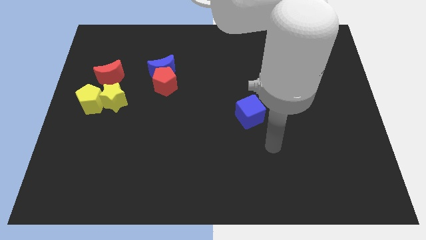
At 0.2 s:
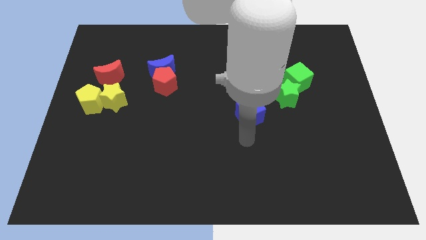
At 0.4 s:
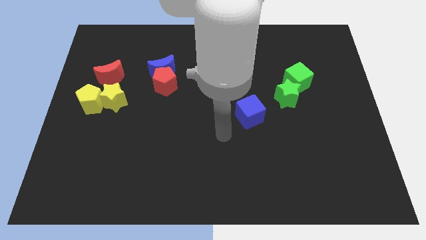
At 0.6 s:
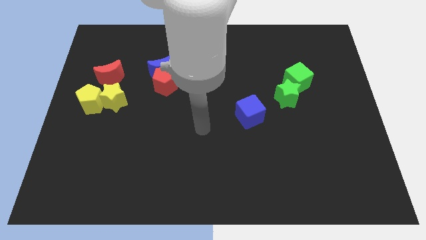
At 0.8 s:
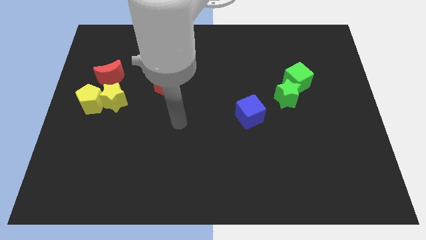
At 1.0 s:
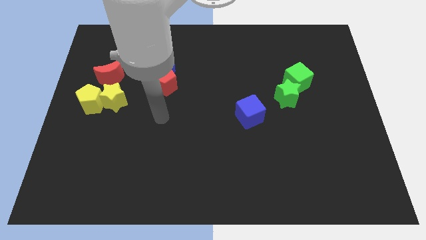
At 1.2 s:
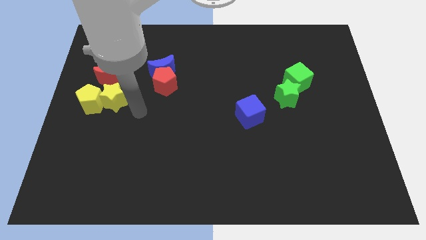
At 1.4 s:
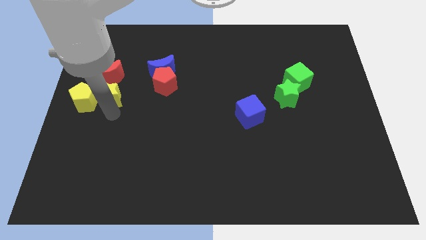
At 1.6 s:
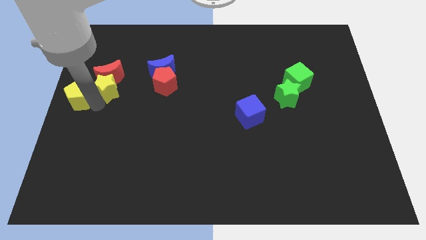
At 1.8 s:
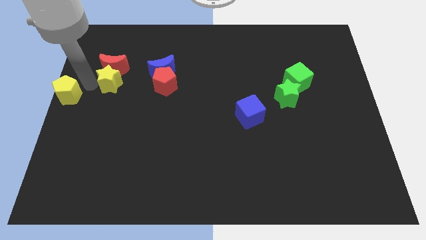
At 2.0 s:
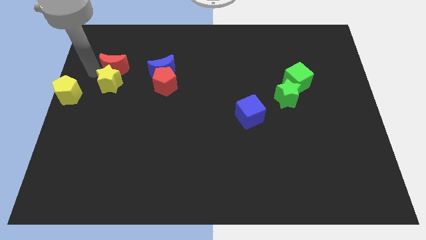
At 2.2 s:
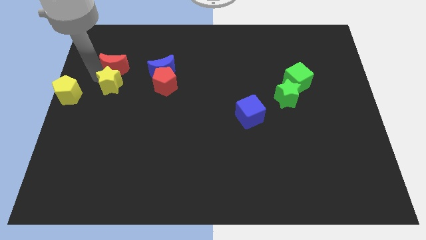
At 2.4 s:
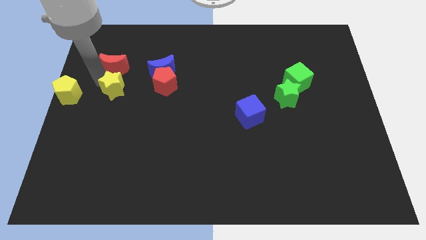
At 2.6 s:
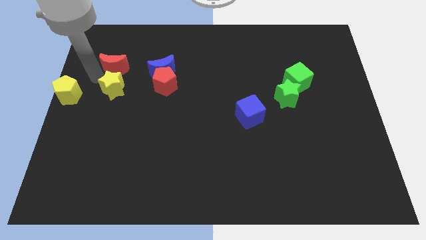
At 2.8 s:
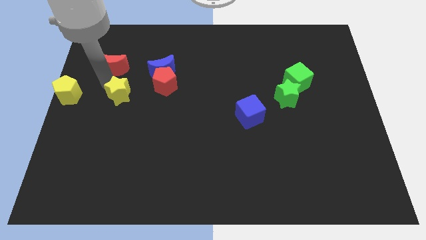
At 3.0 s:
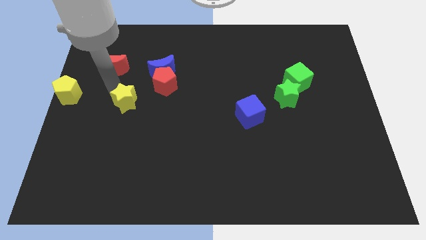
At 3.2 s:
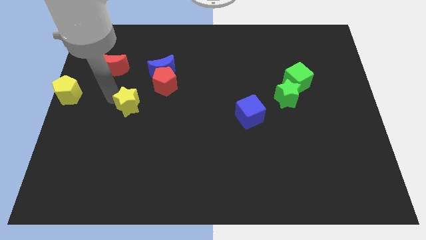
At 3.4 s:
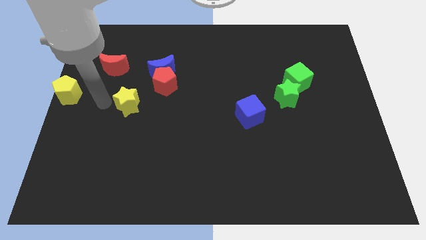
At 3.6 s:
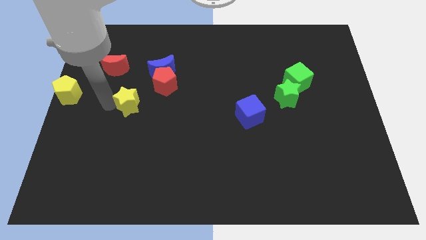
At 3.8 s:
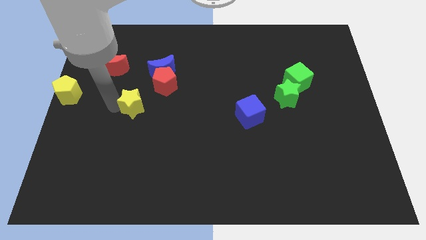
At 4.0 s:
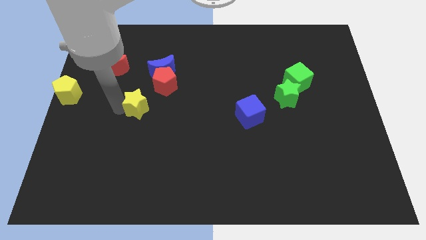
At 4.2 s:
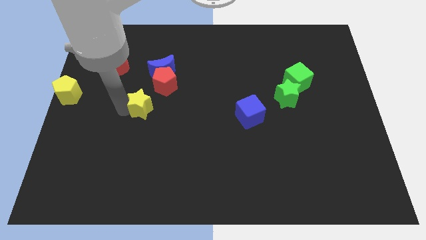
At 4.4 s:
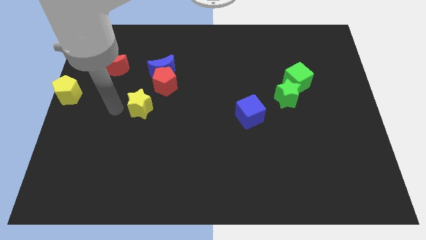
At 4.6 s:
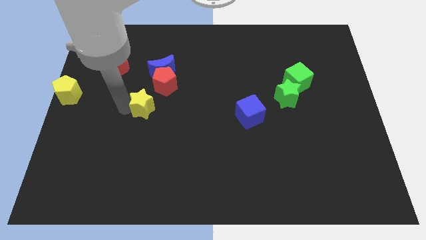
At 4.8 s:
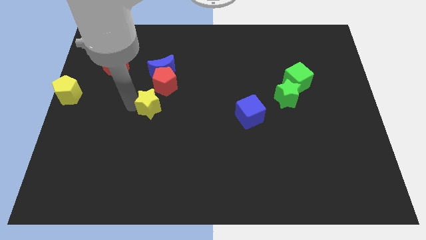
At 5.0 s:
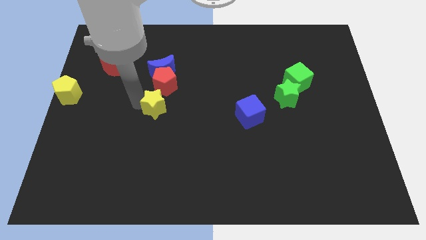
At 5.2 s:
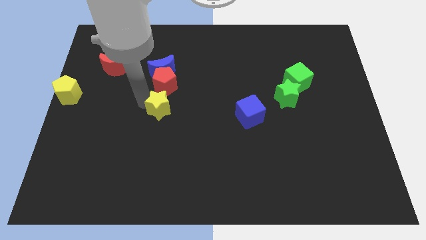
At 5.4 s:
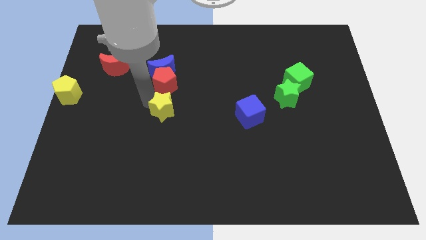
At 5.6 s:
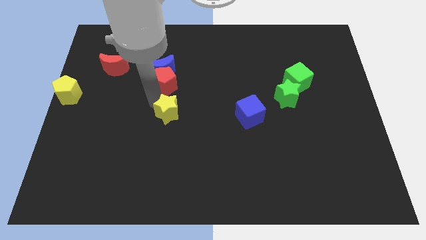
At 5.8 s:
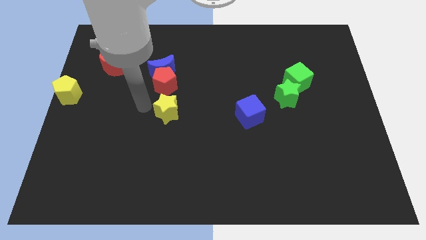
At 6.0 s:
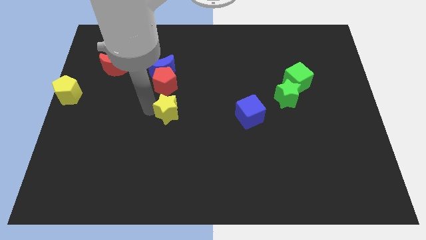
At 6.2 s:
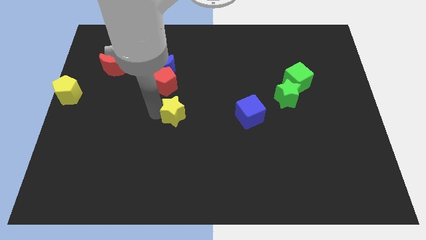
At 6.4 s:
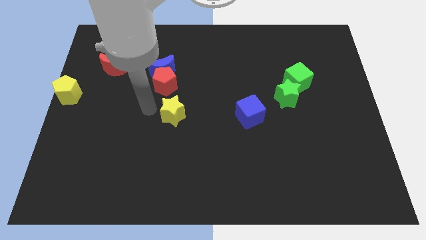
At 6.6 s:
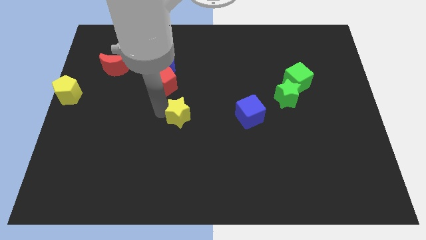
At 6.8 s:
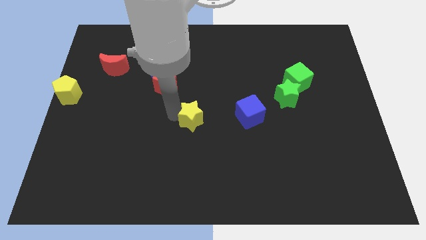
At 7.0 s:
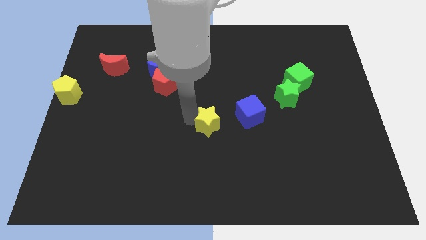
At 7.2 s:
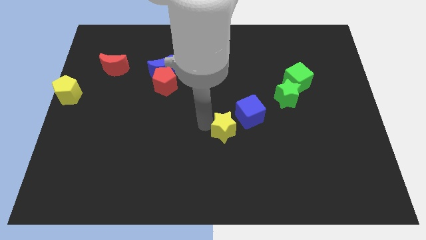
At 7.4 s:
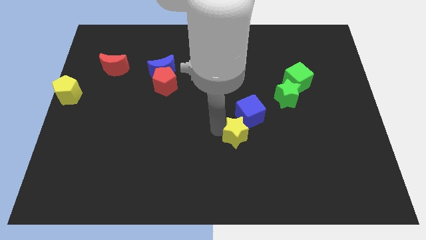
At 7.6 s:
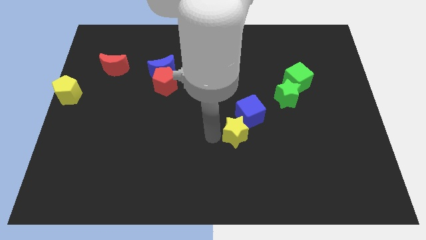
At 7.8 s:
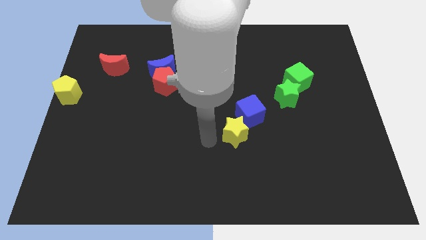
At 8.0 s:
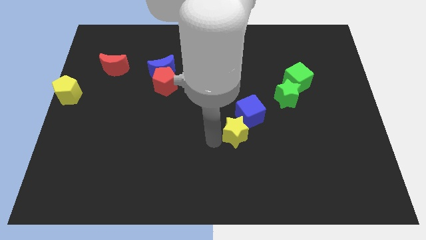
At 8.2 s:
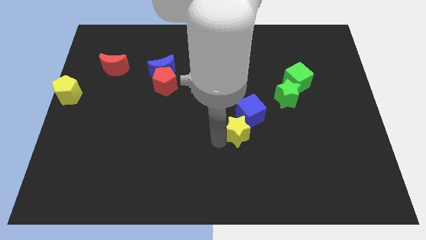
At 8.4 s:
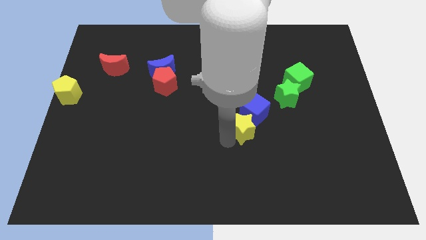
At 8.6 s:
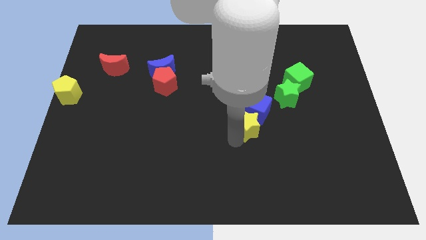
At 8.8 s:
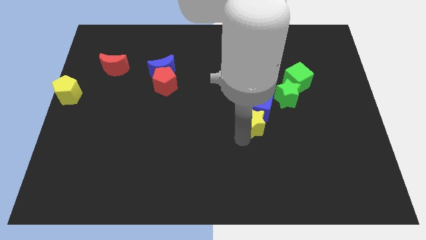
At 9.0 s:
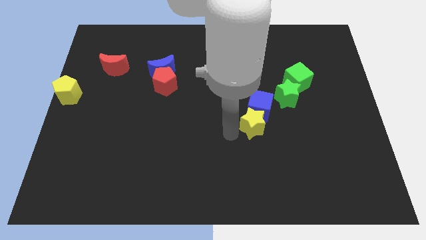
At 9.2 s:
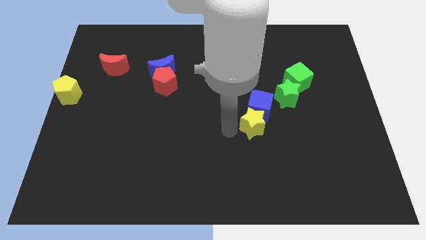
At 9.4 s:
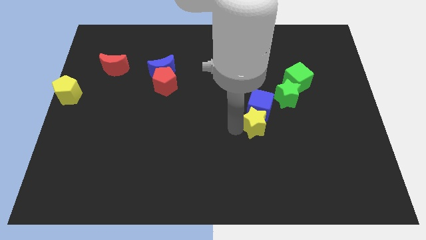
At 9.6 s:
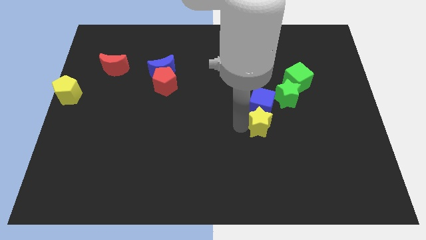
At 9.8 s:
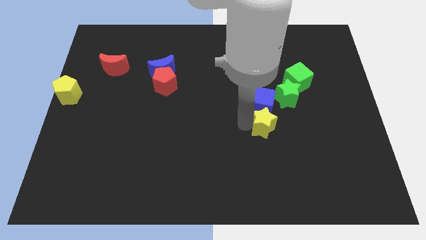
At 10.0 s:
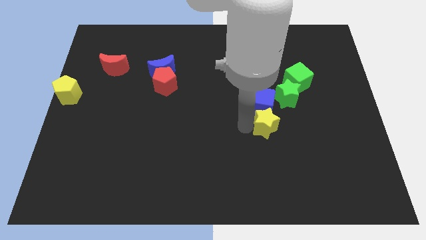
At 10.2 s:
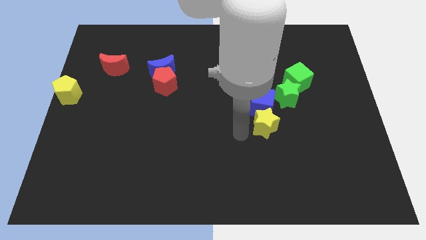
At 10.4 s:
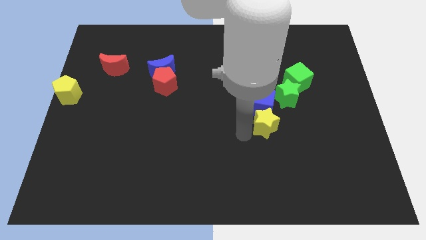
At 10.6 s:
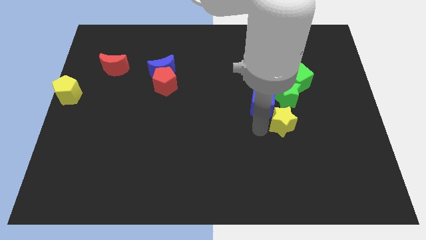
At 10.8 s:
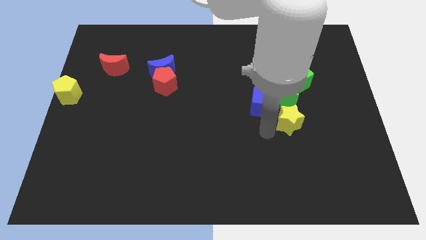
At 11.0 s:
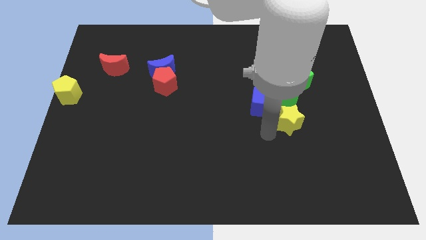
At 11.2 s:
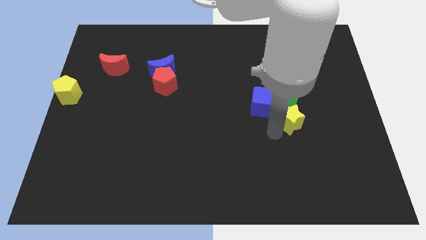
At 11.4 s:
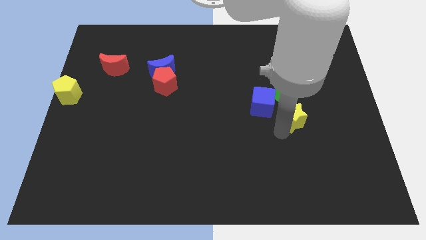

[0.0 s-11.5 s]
slide the yellow star diagonally down and to the right of the green star

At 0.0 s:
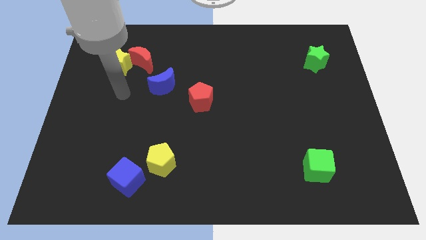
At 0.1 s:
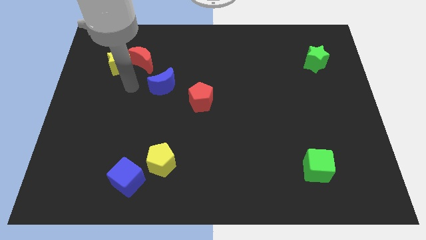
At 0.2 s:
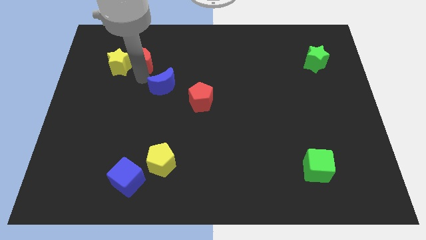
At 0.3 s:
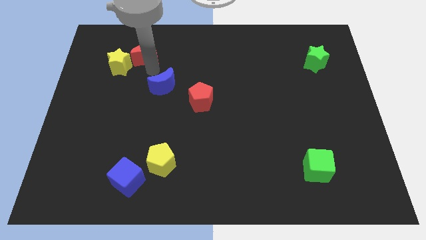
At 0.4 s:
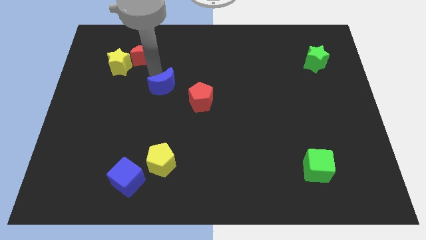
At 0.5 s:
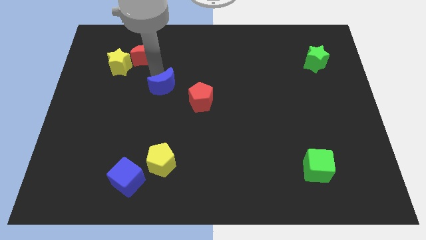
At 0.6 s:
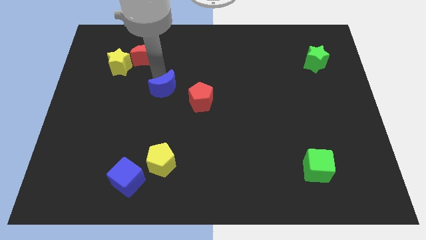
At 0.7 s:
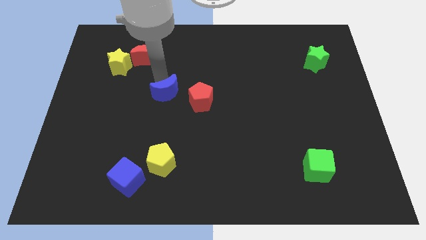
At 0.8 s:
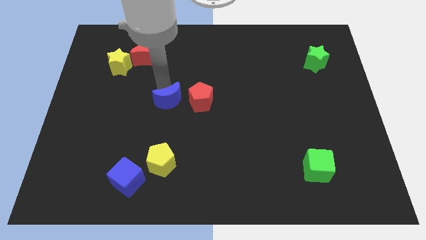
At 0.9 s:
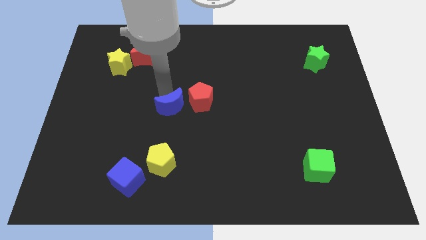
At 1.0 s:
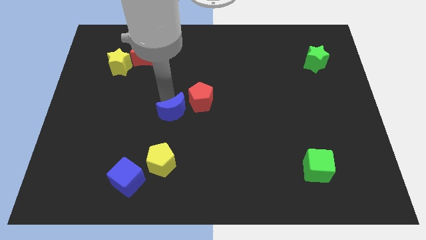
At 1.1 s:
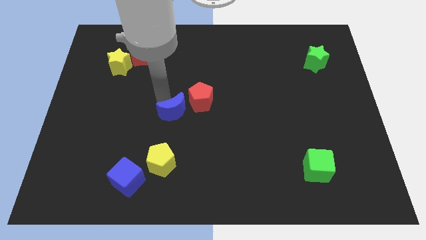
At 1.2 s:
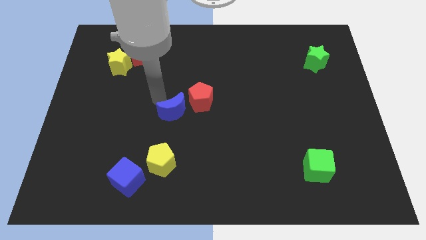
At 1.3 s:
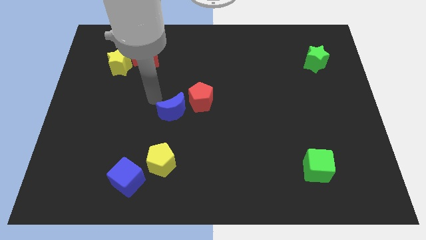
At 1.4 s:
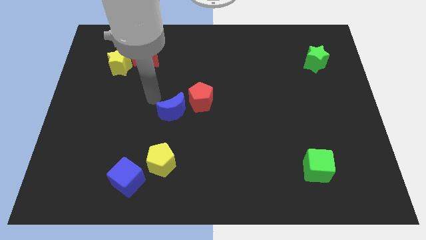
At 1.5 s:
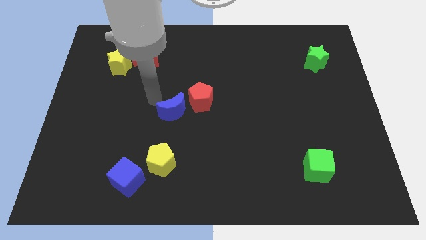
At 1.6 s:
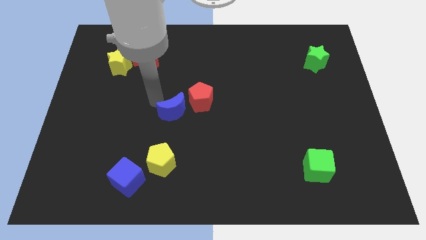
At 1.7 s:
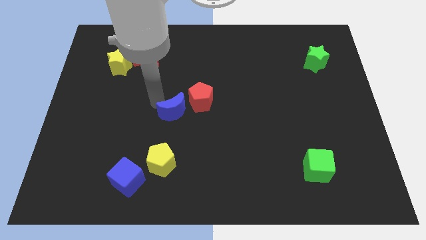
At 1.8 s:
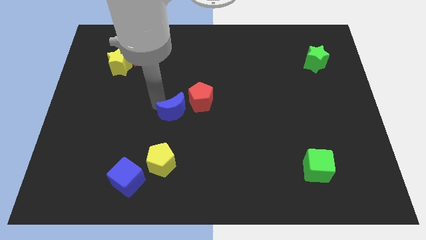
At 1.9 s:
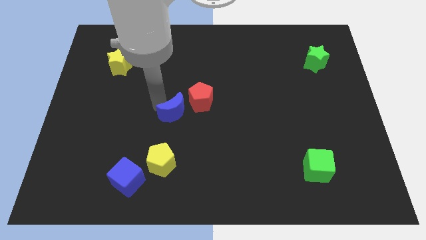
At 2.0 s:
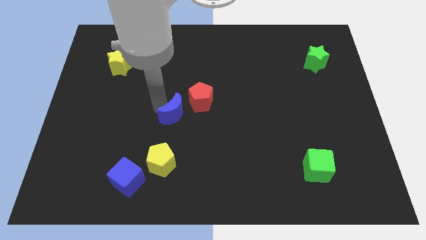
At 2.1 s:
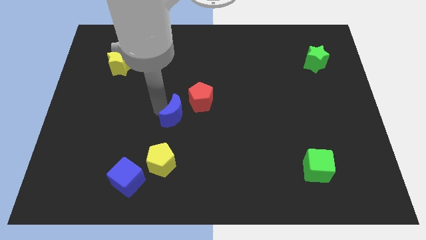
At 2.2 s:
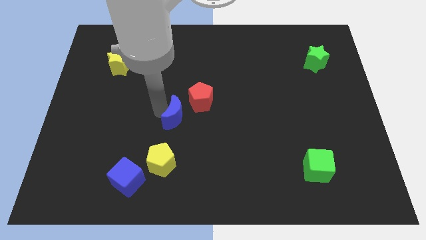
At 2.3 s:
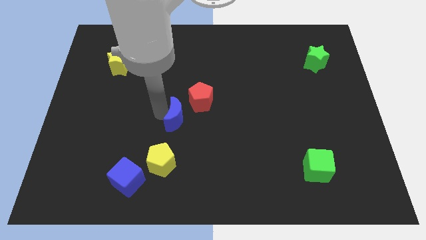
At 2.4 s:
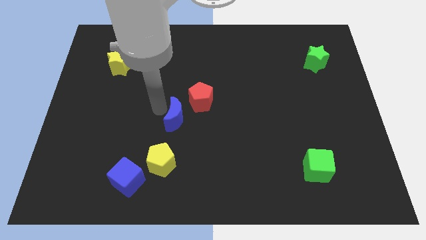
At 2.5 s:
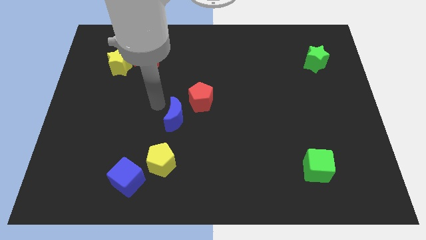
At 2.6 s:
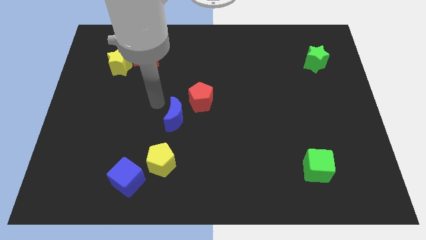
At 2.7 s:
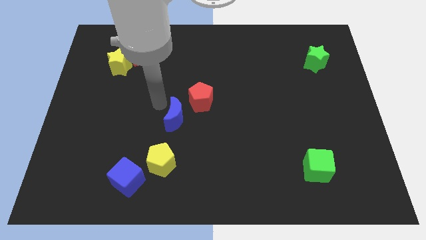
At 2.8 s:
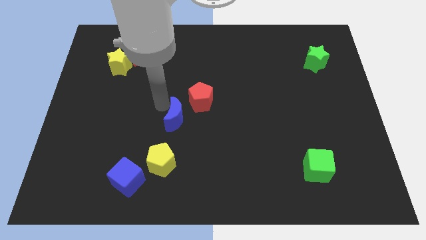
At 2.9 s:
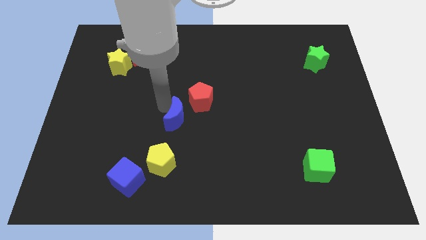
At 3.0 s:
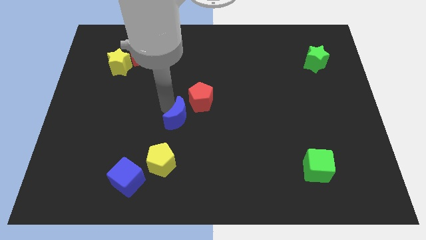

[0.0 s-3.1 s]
push the blue moon to the bottom of the red pentagon
